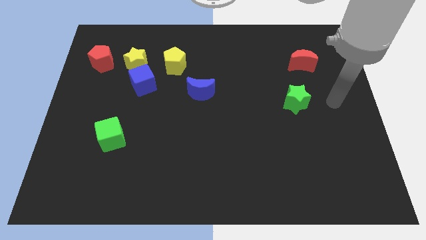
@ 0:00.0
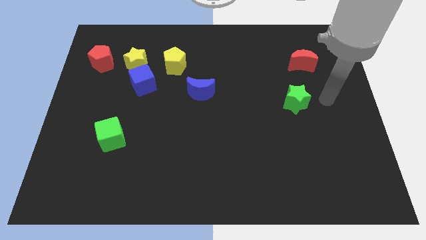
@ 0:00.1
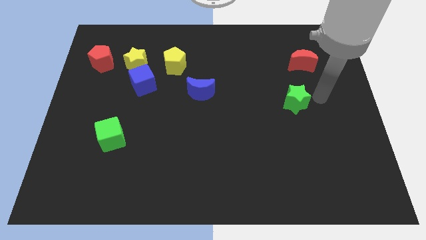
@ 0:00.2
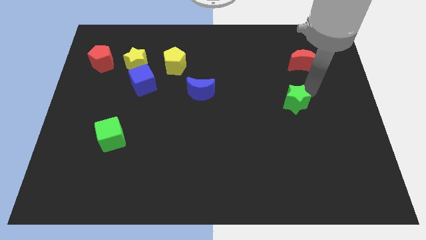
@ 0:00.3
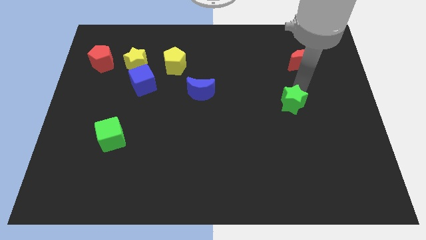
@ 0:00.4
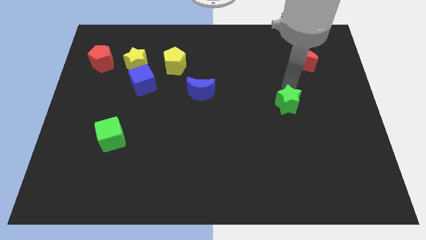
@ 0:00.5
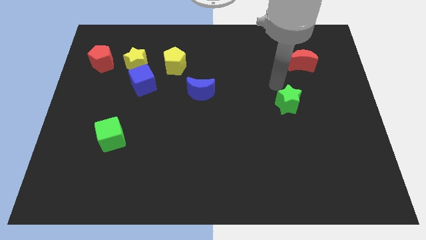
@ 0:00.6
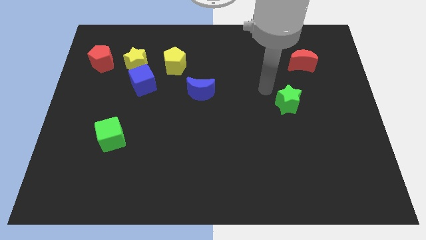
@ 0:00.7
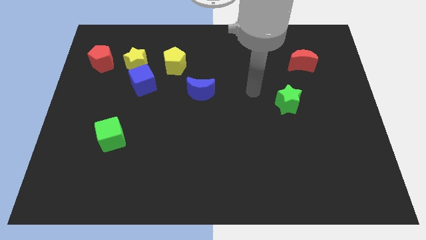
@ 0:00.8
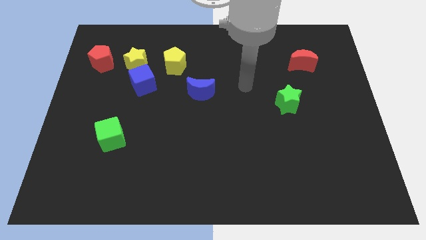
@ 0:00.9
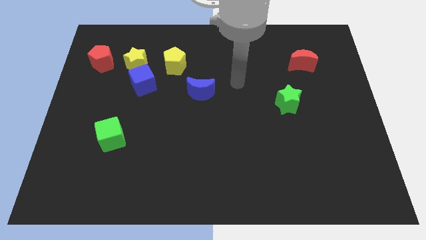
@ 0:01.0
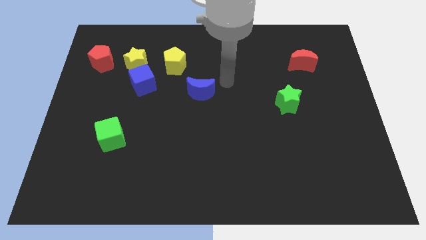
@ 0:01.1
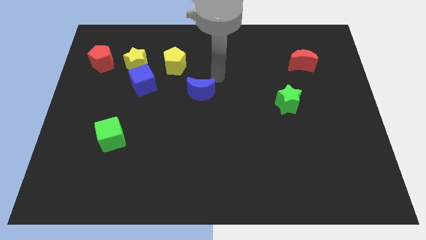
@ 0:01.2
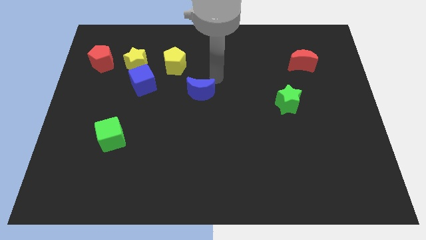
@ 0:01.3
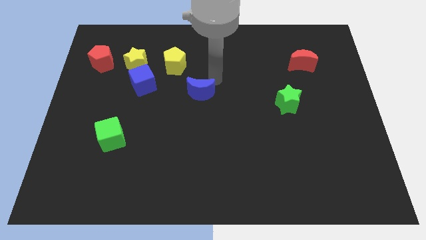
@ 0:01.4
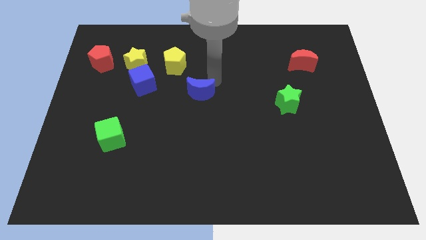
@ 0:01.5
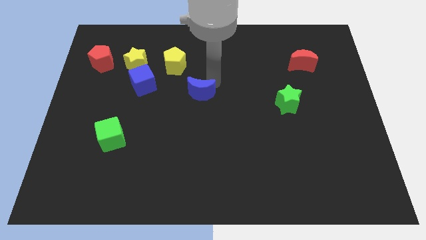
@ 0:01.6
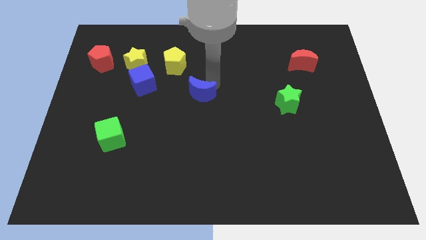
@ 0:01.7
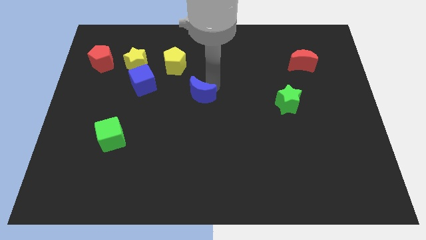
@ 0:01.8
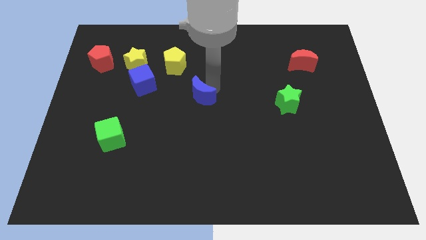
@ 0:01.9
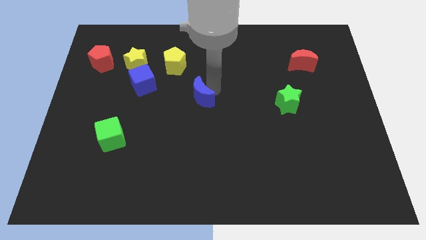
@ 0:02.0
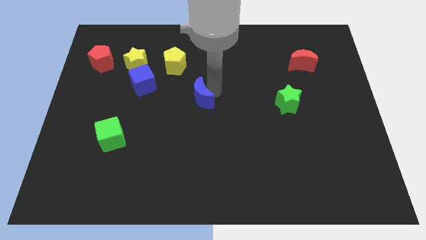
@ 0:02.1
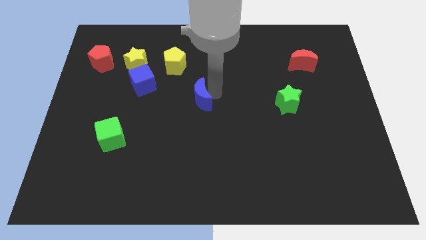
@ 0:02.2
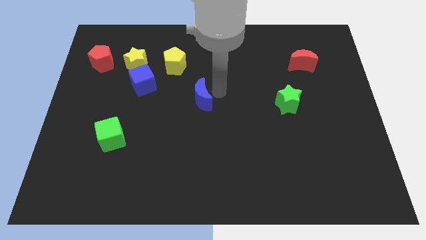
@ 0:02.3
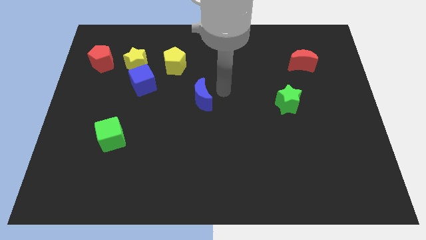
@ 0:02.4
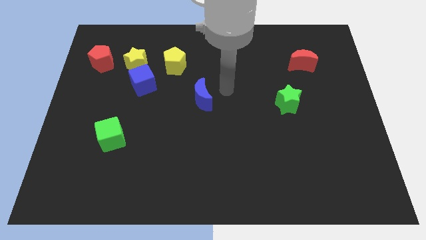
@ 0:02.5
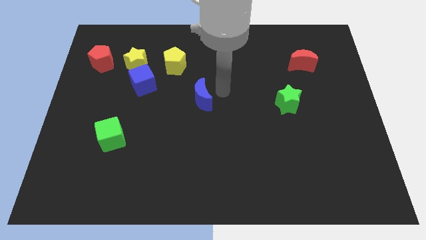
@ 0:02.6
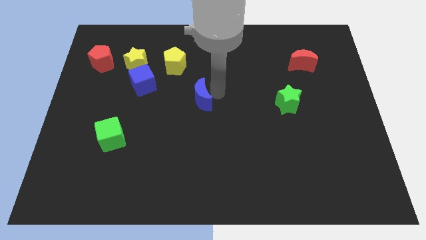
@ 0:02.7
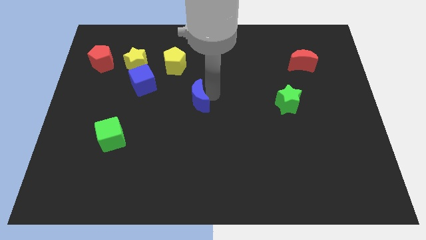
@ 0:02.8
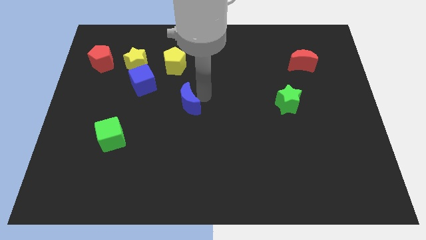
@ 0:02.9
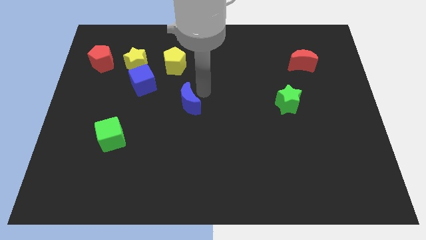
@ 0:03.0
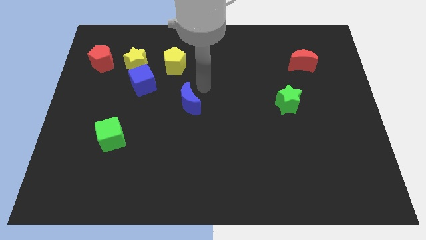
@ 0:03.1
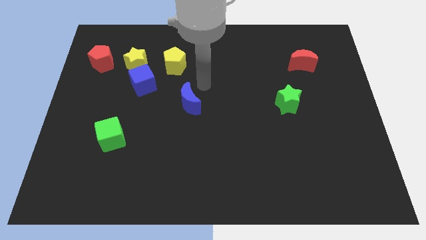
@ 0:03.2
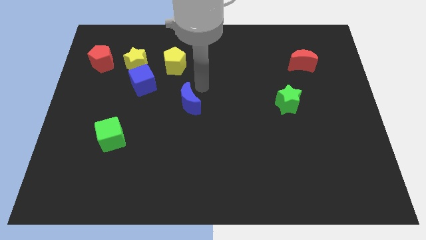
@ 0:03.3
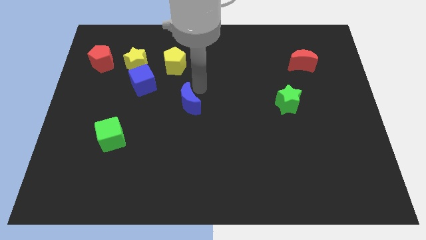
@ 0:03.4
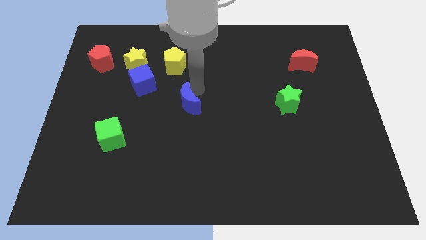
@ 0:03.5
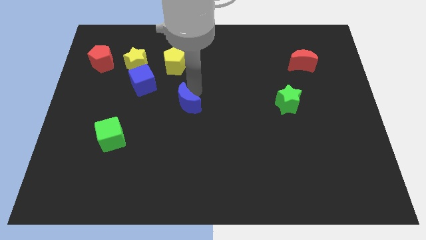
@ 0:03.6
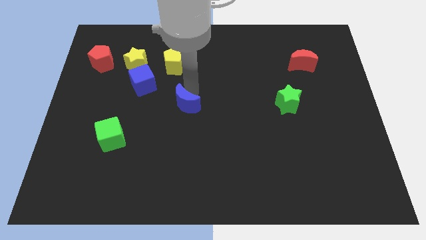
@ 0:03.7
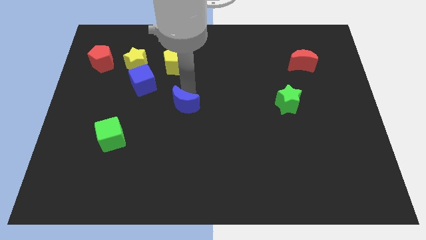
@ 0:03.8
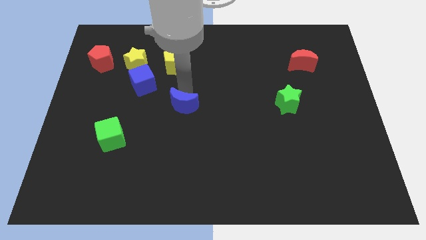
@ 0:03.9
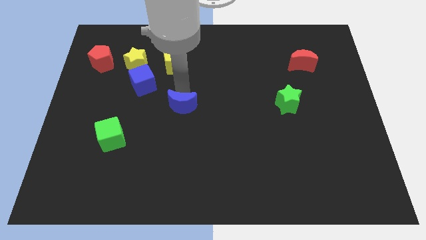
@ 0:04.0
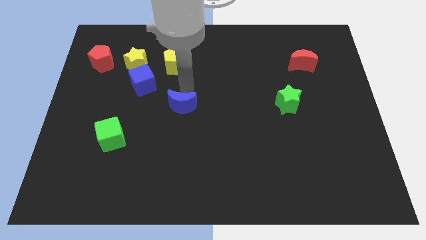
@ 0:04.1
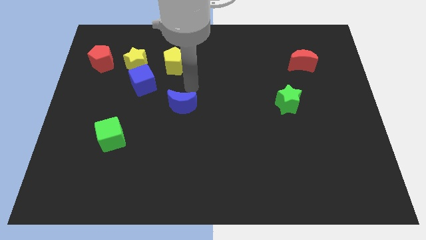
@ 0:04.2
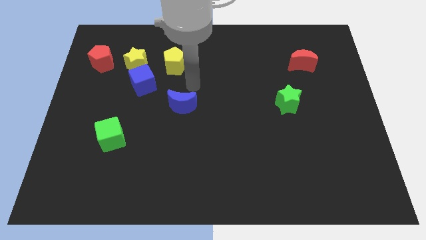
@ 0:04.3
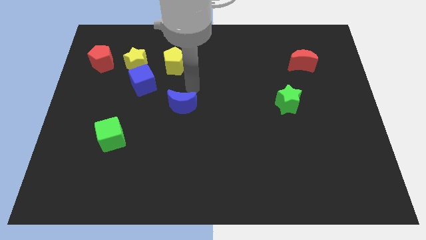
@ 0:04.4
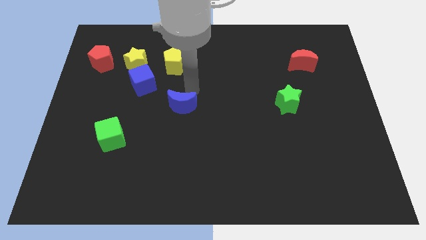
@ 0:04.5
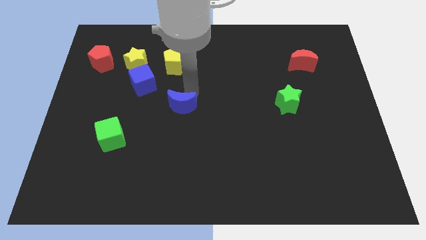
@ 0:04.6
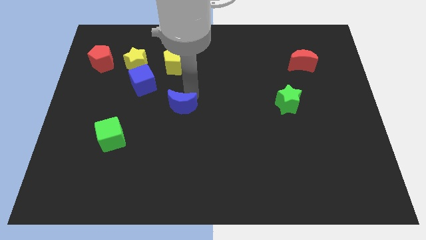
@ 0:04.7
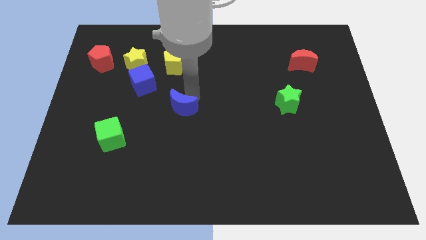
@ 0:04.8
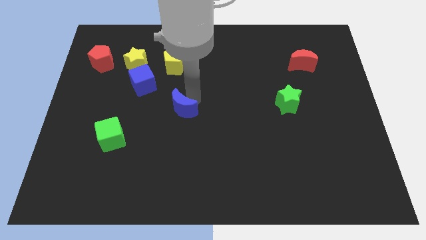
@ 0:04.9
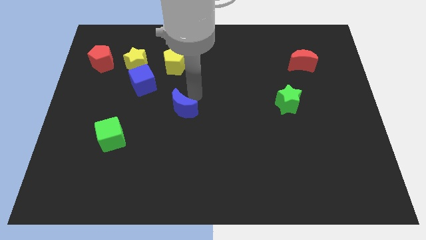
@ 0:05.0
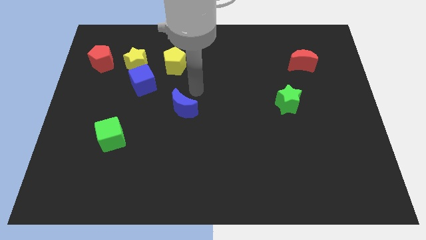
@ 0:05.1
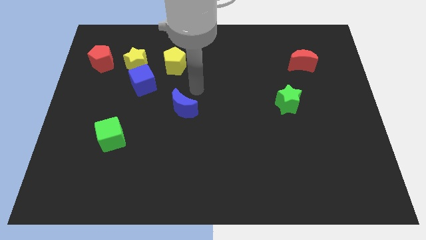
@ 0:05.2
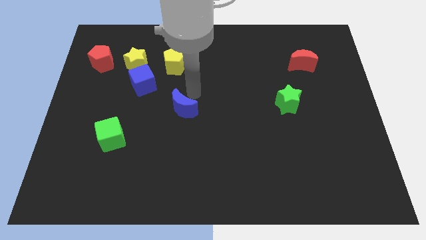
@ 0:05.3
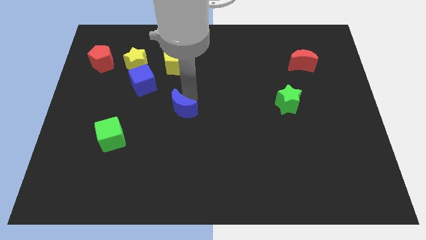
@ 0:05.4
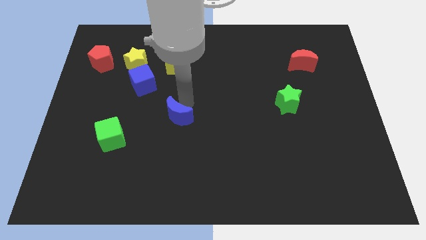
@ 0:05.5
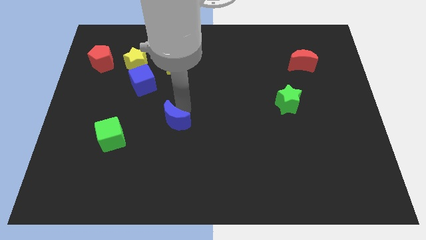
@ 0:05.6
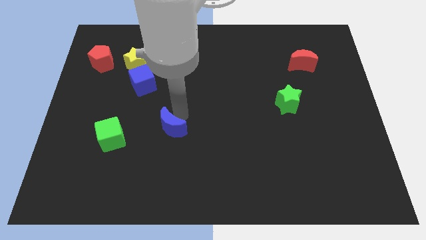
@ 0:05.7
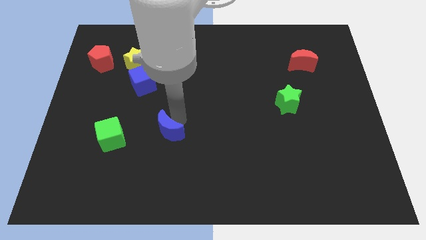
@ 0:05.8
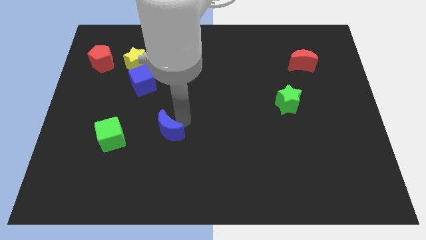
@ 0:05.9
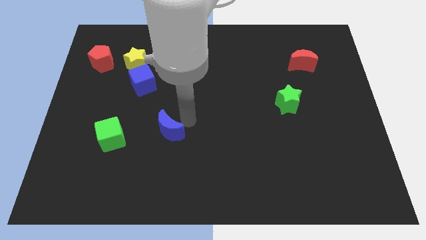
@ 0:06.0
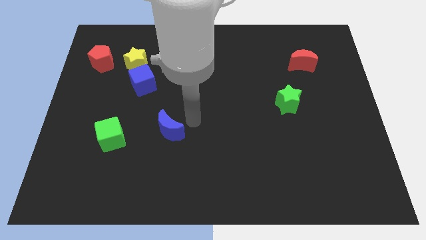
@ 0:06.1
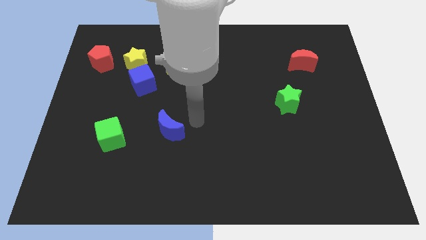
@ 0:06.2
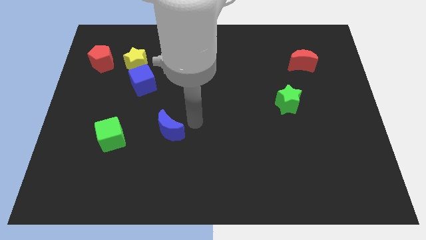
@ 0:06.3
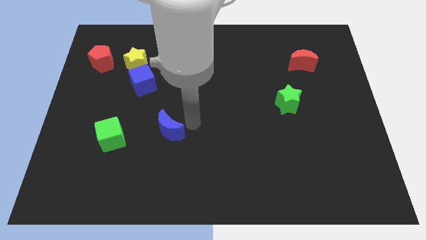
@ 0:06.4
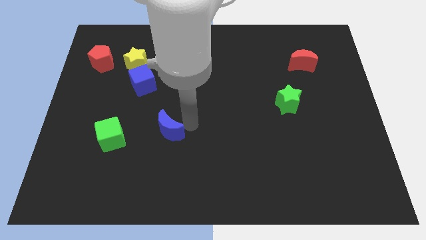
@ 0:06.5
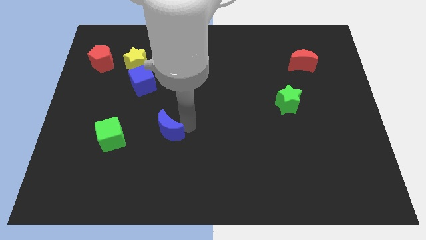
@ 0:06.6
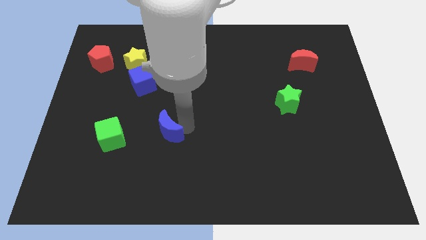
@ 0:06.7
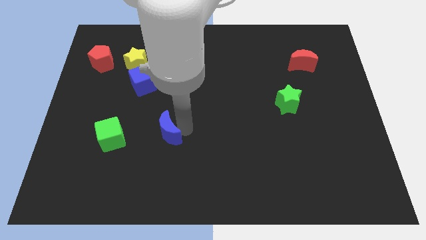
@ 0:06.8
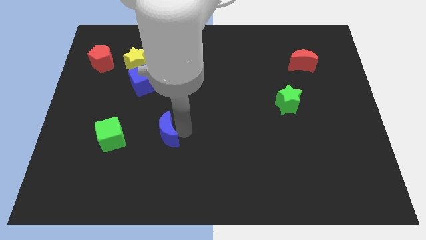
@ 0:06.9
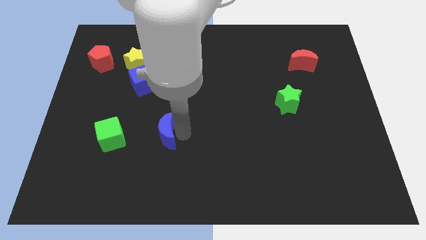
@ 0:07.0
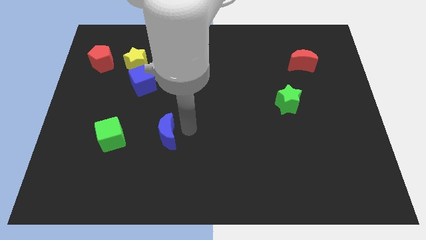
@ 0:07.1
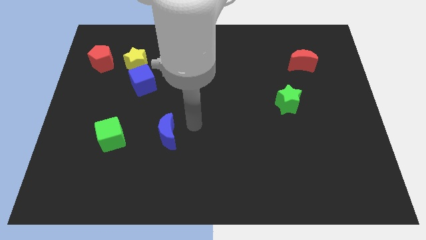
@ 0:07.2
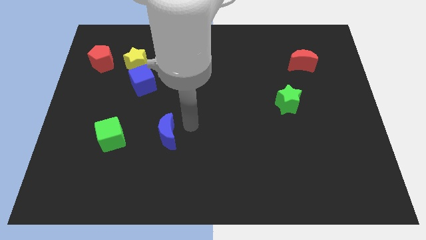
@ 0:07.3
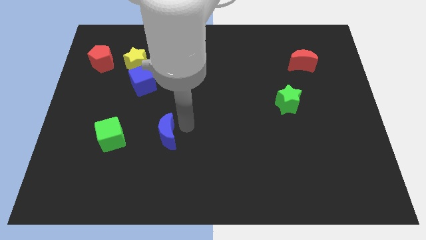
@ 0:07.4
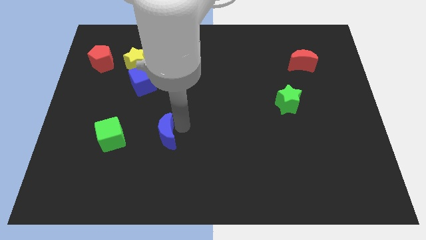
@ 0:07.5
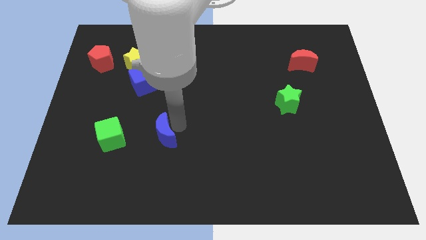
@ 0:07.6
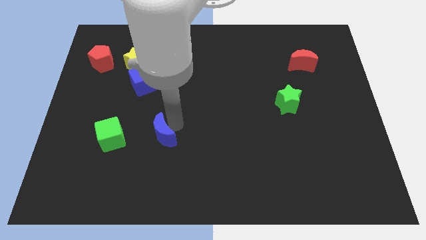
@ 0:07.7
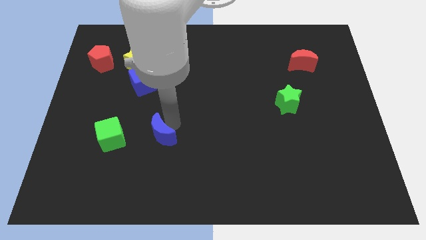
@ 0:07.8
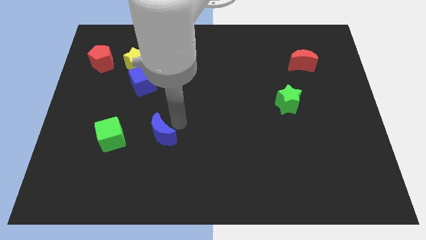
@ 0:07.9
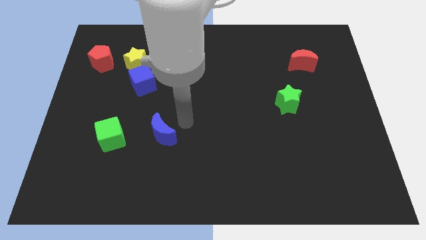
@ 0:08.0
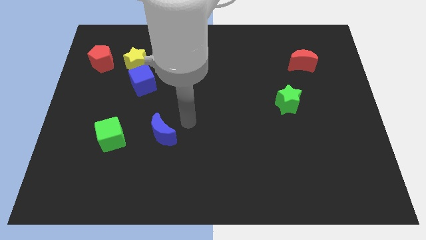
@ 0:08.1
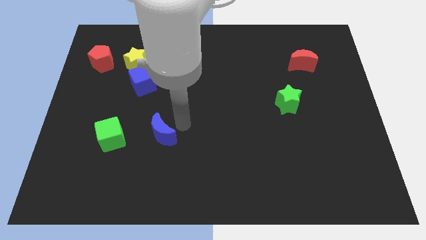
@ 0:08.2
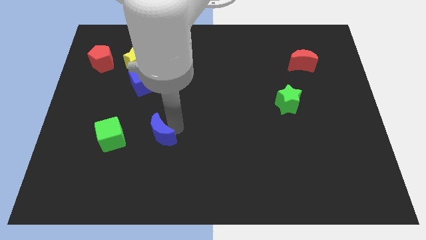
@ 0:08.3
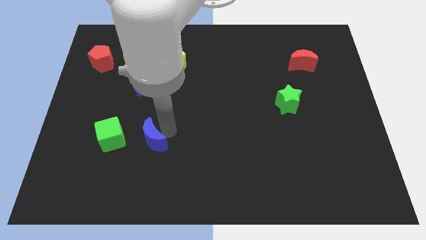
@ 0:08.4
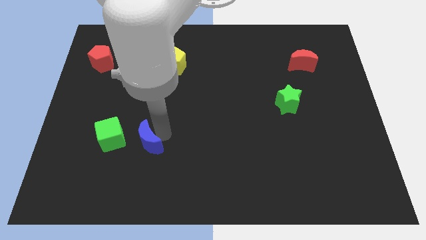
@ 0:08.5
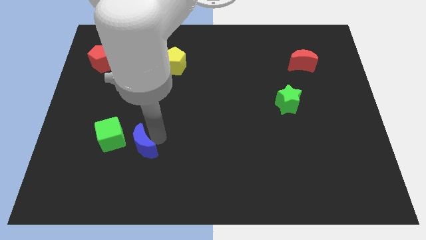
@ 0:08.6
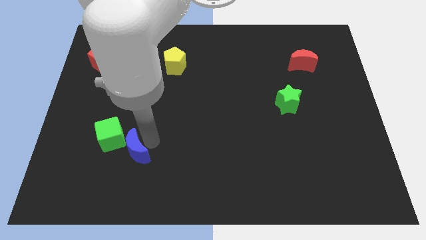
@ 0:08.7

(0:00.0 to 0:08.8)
move the blue moon down and left
